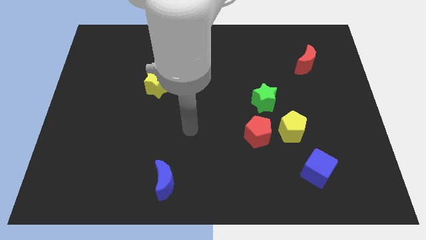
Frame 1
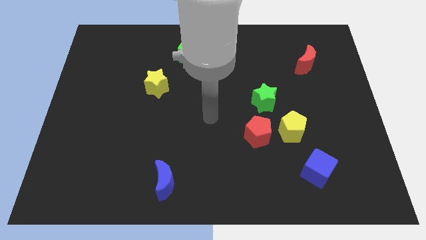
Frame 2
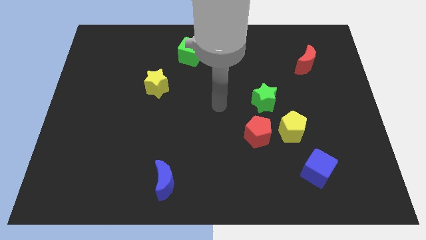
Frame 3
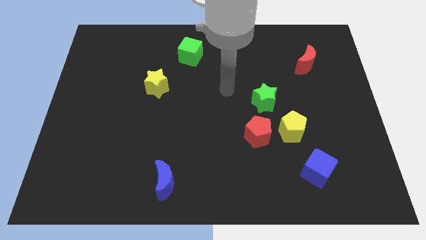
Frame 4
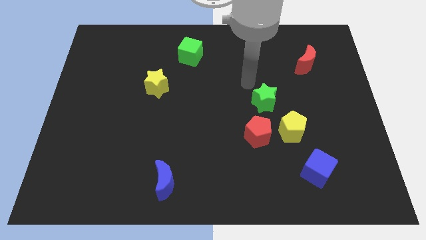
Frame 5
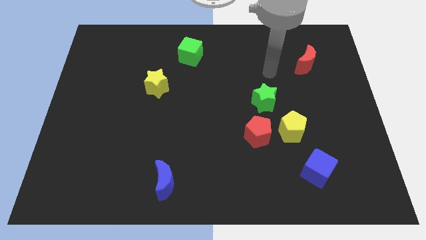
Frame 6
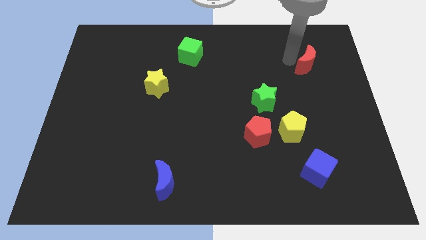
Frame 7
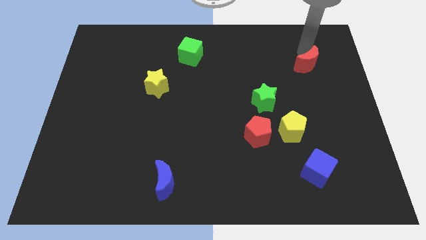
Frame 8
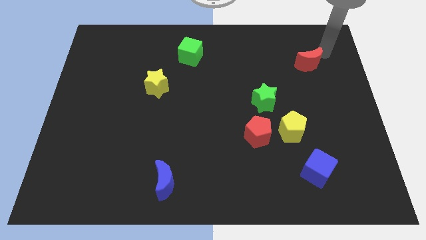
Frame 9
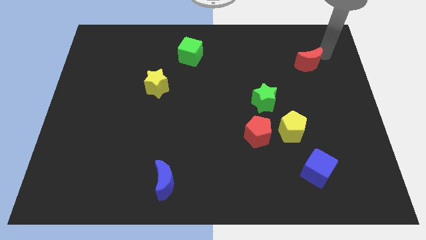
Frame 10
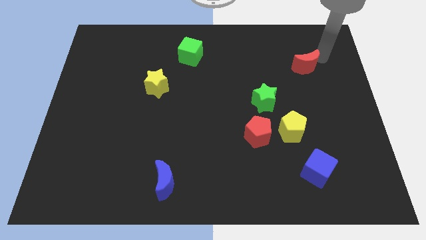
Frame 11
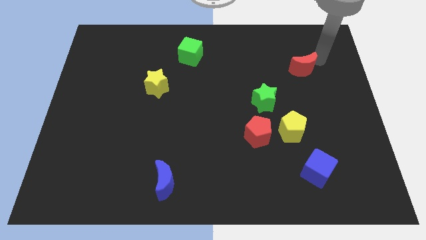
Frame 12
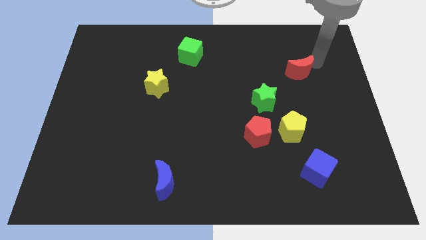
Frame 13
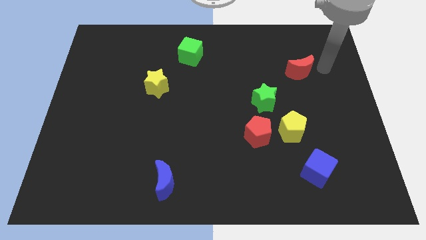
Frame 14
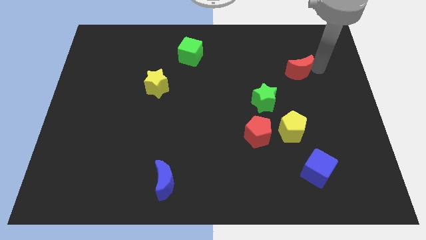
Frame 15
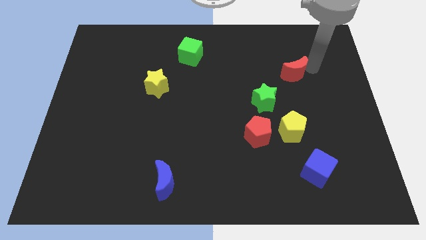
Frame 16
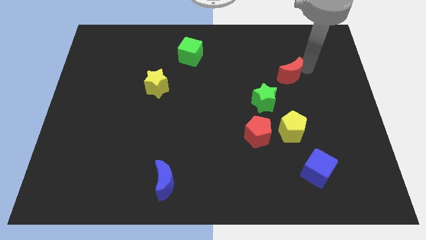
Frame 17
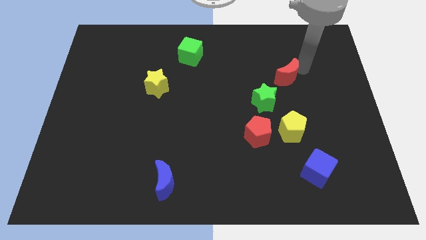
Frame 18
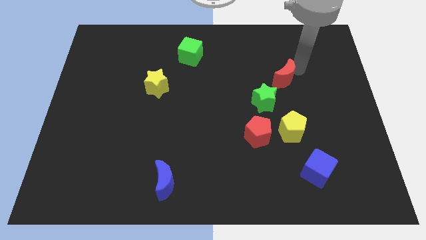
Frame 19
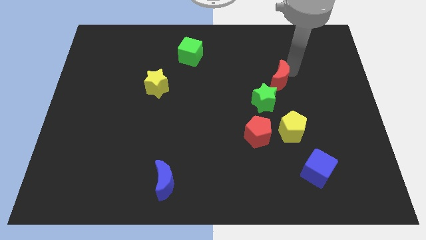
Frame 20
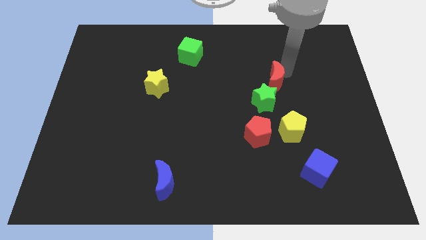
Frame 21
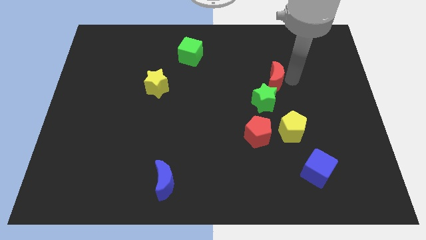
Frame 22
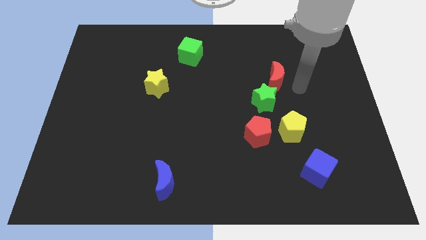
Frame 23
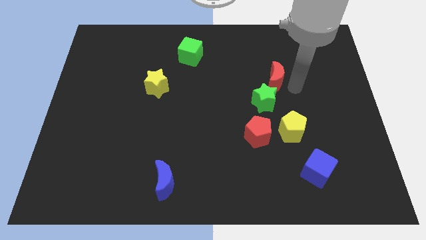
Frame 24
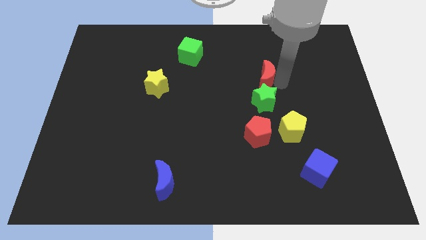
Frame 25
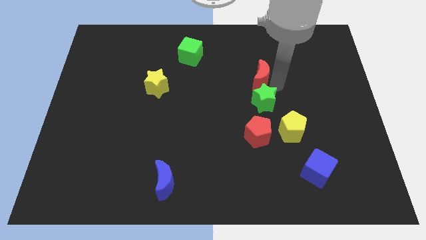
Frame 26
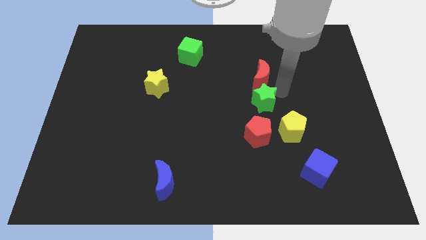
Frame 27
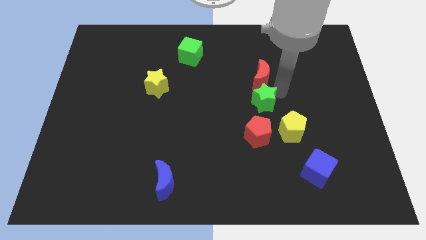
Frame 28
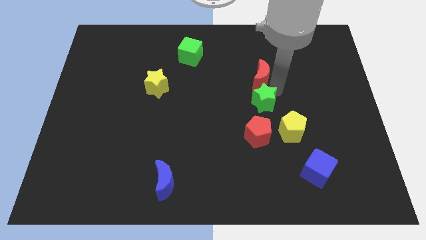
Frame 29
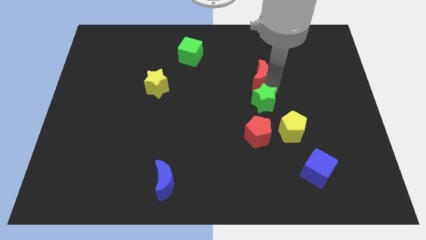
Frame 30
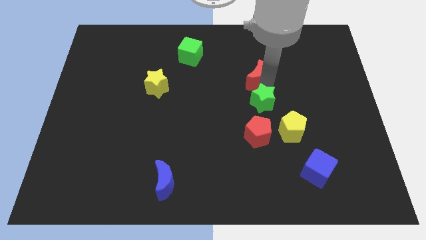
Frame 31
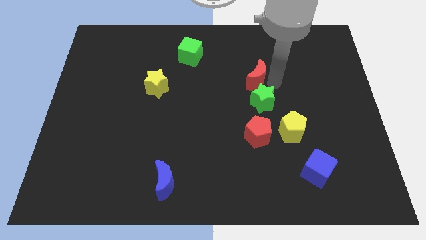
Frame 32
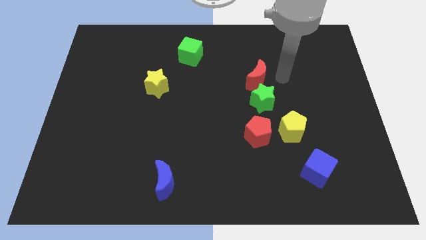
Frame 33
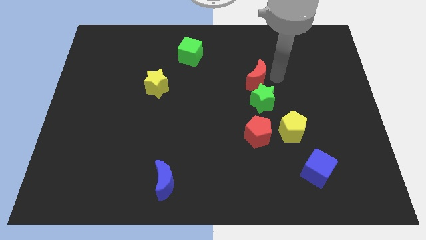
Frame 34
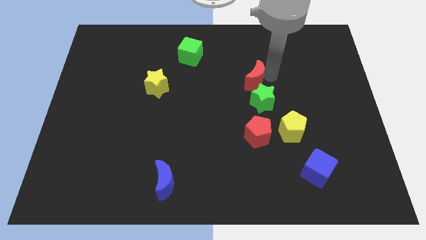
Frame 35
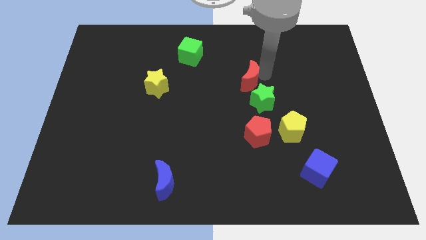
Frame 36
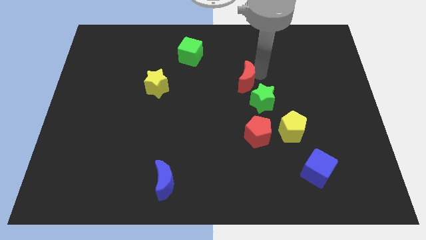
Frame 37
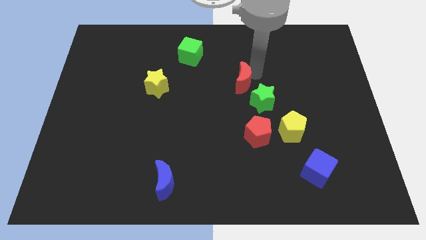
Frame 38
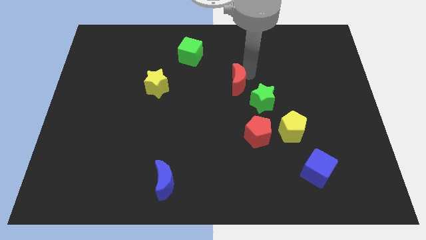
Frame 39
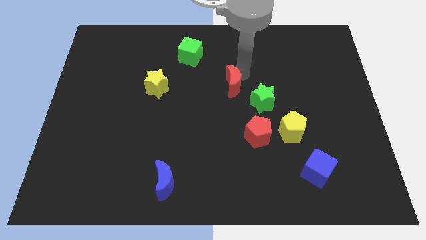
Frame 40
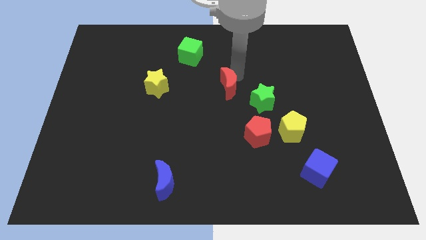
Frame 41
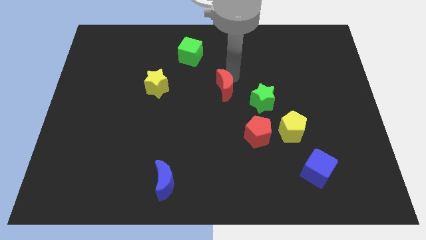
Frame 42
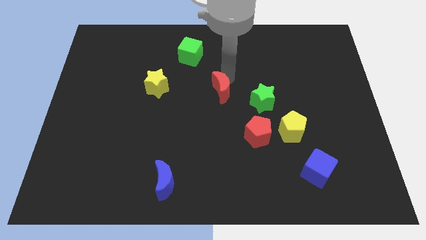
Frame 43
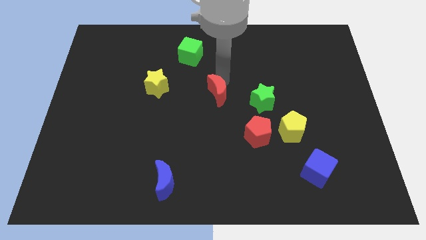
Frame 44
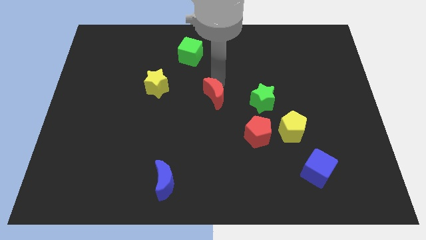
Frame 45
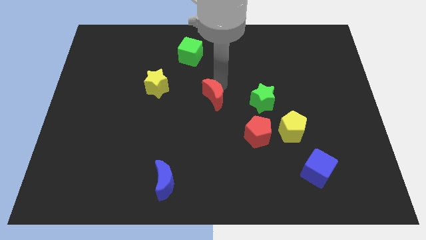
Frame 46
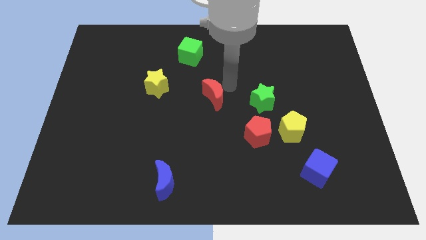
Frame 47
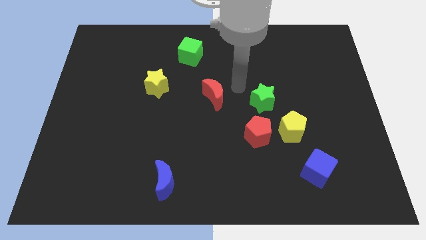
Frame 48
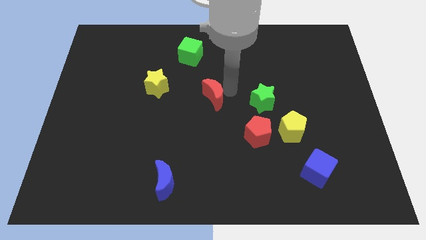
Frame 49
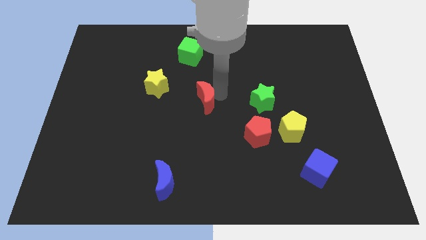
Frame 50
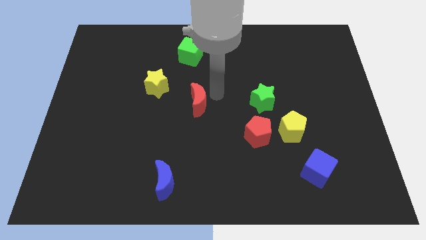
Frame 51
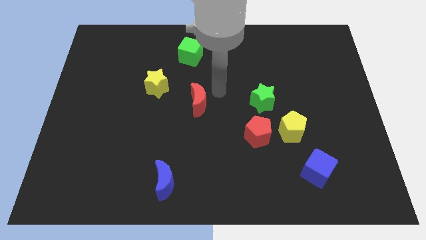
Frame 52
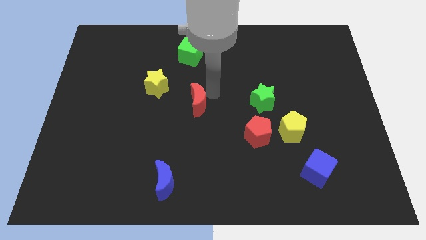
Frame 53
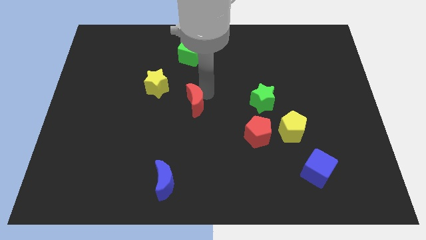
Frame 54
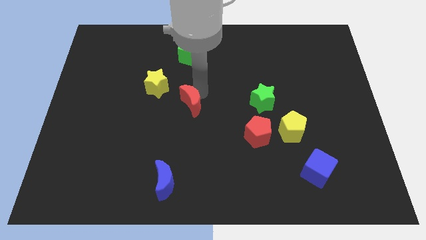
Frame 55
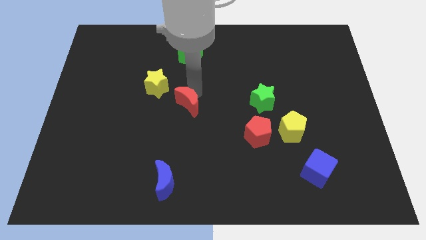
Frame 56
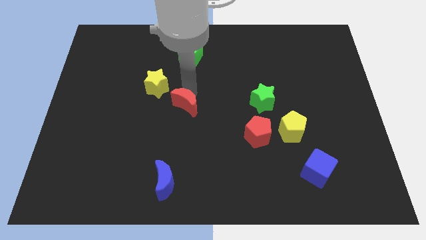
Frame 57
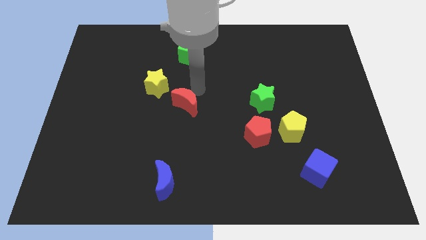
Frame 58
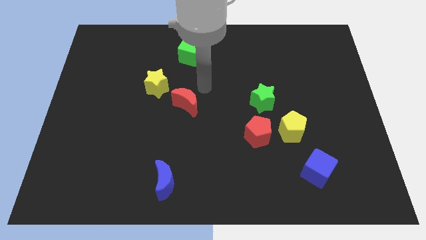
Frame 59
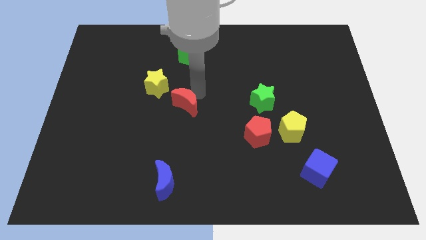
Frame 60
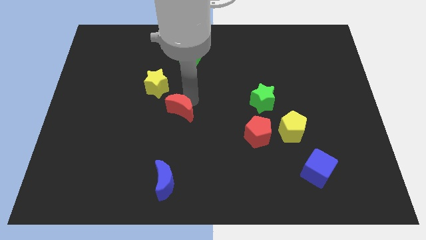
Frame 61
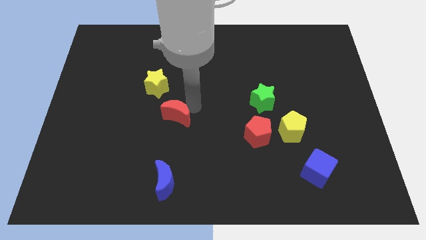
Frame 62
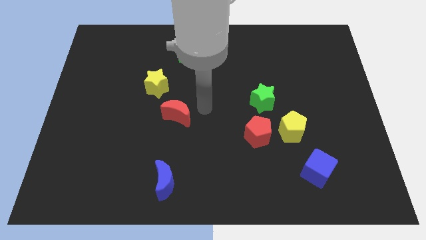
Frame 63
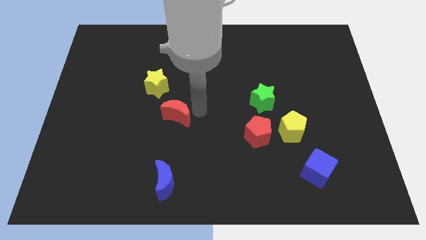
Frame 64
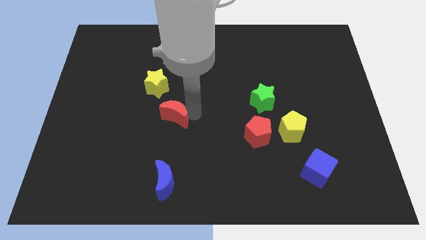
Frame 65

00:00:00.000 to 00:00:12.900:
push the red moon to the bottom side of the yellow star

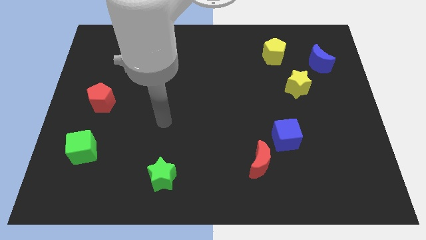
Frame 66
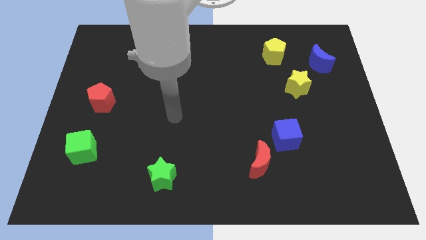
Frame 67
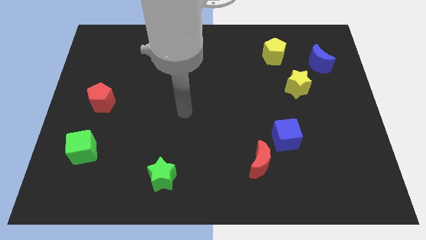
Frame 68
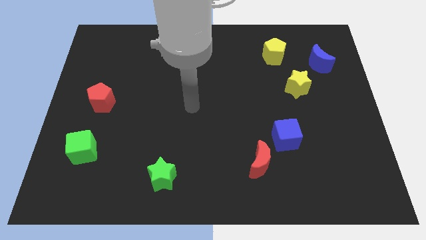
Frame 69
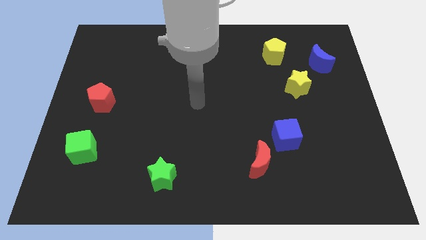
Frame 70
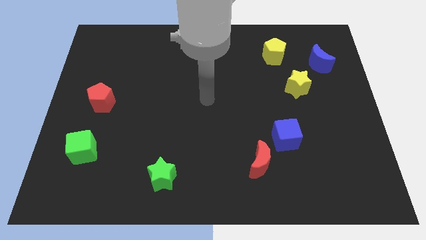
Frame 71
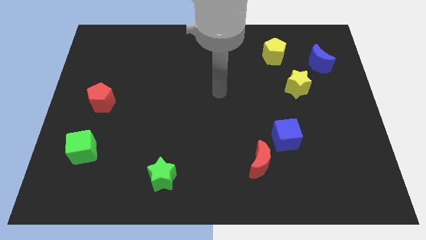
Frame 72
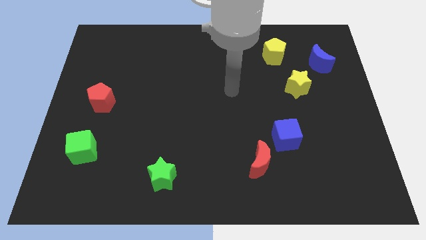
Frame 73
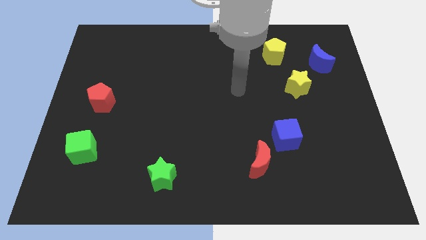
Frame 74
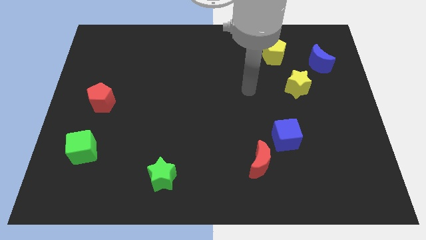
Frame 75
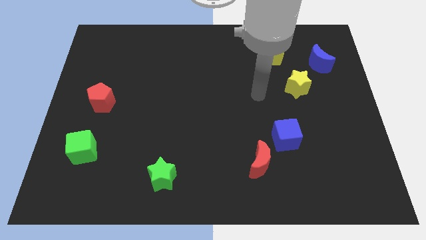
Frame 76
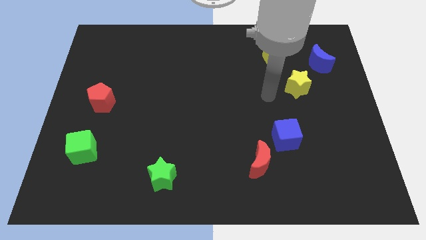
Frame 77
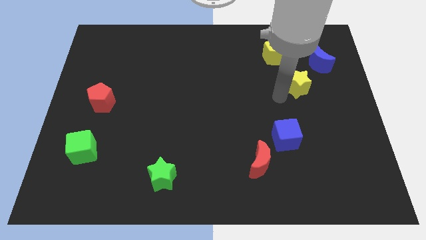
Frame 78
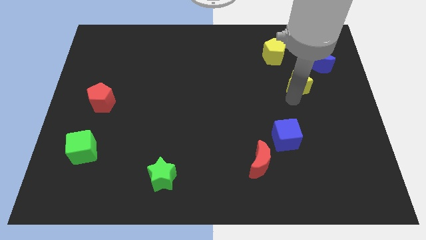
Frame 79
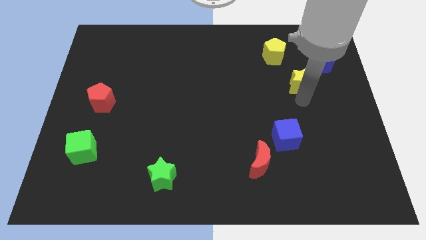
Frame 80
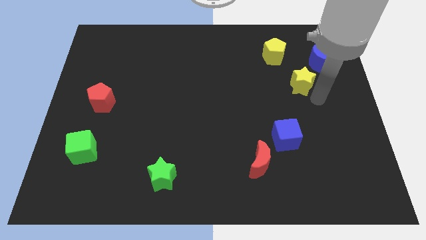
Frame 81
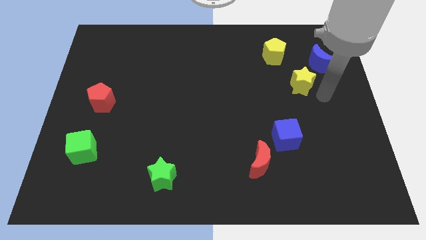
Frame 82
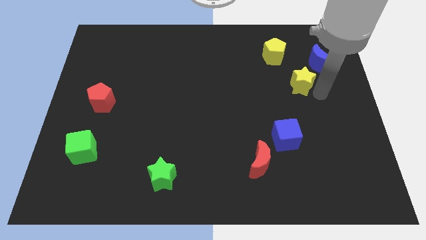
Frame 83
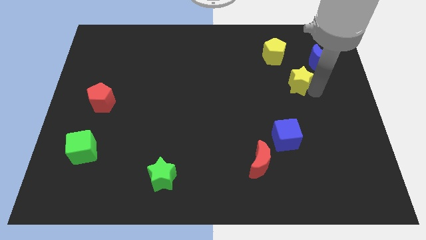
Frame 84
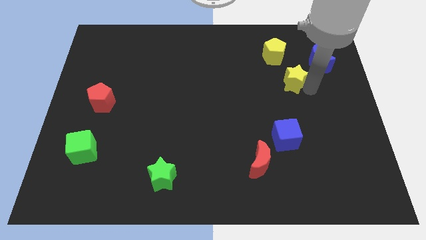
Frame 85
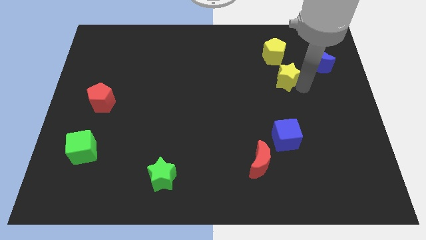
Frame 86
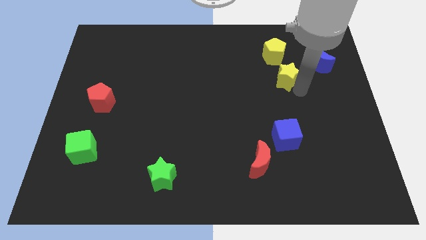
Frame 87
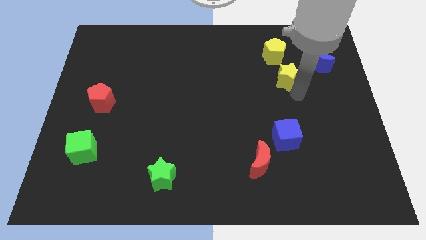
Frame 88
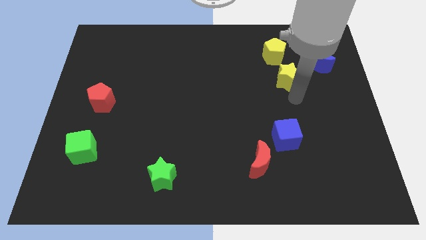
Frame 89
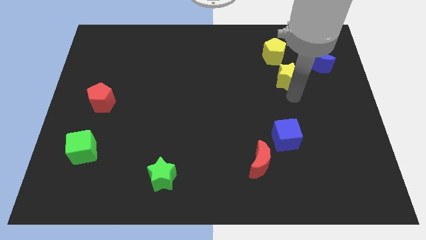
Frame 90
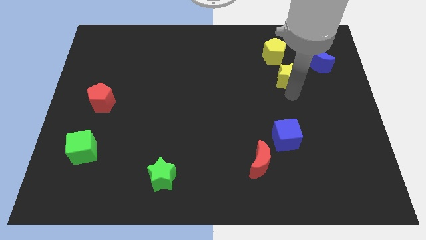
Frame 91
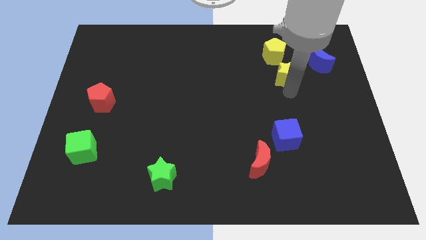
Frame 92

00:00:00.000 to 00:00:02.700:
push the yellow star just left of the blue moon
